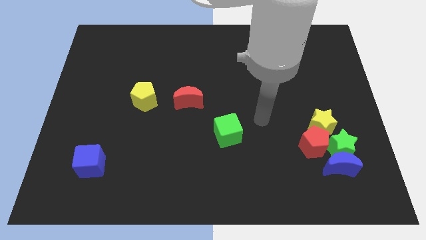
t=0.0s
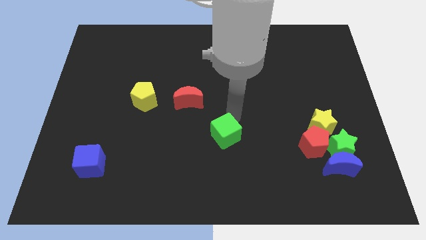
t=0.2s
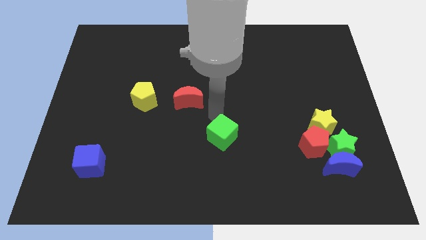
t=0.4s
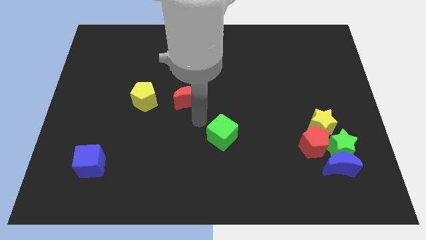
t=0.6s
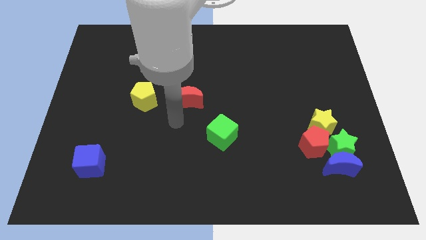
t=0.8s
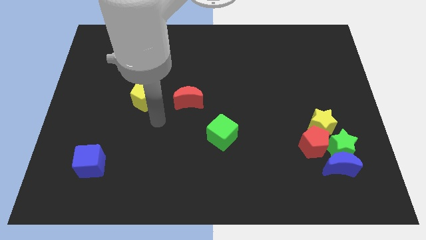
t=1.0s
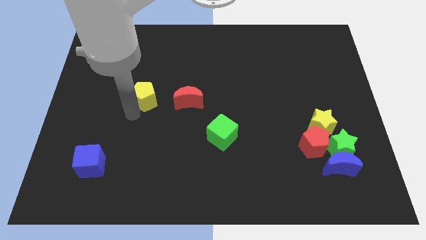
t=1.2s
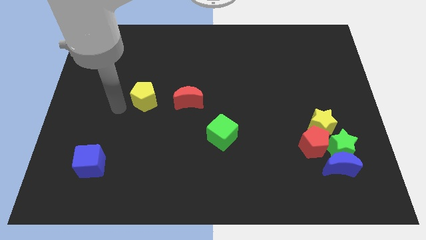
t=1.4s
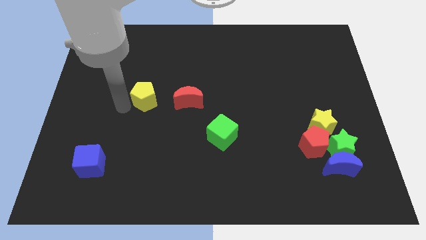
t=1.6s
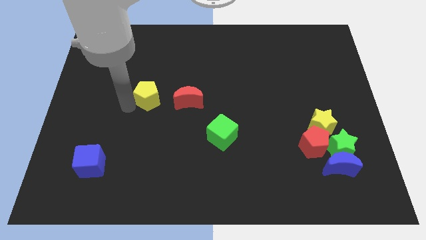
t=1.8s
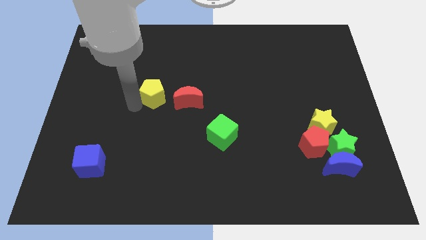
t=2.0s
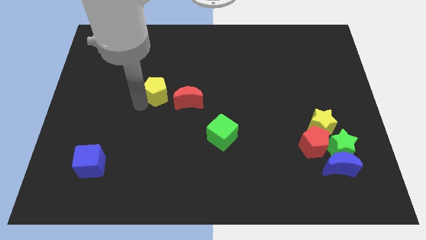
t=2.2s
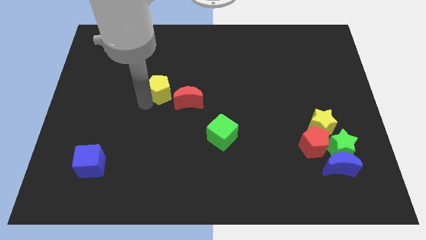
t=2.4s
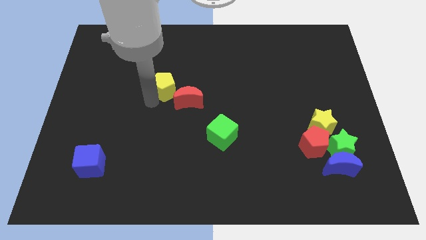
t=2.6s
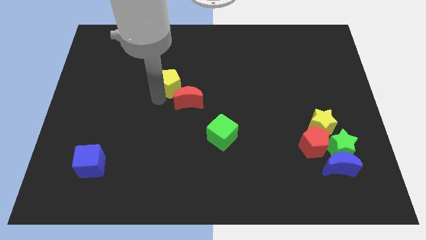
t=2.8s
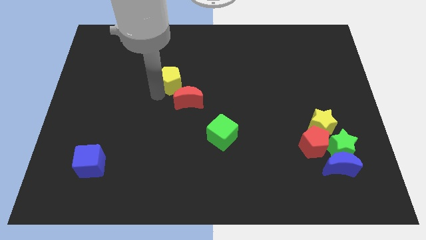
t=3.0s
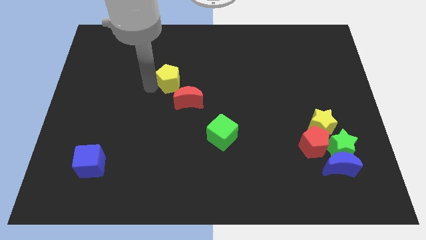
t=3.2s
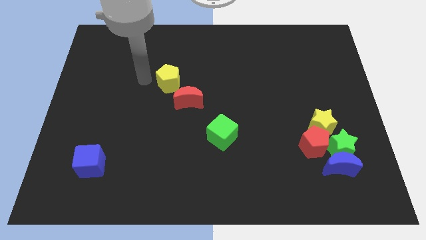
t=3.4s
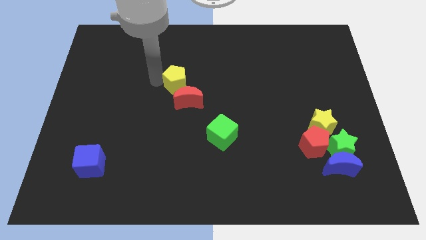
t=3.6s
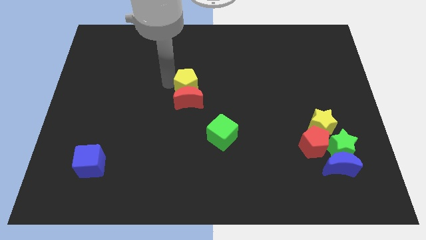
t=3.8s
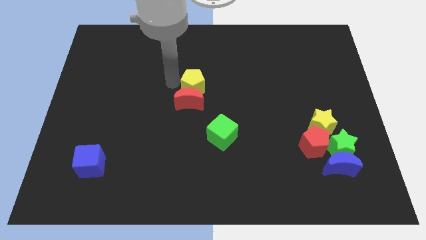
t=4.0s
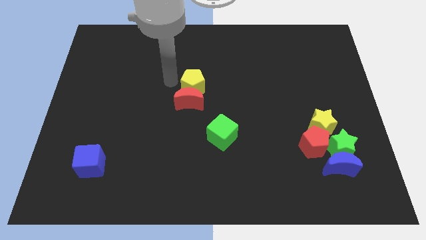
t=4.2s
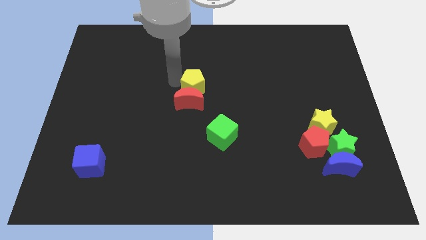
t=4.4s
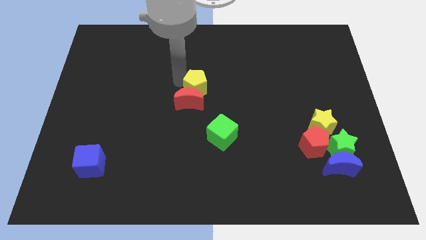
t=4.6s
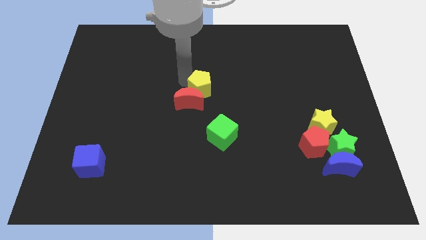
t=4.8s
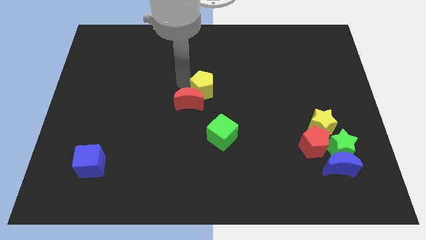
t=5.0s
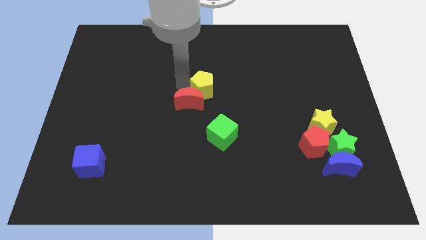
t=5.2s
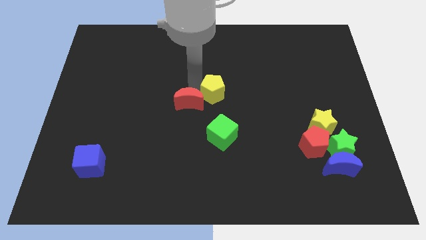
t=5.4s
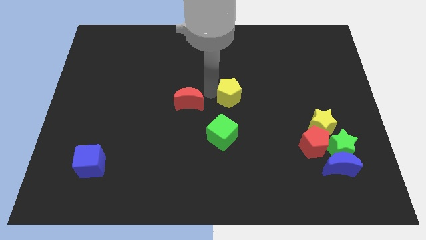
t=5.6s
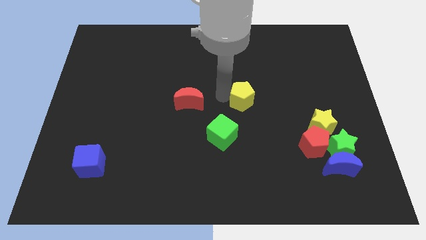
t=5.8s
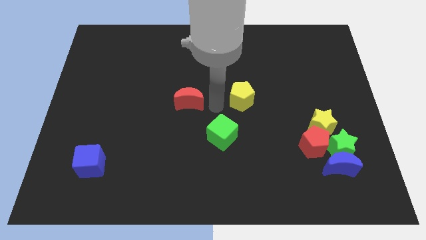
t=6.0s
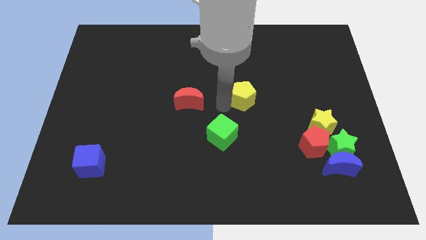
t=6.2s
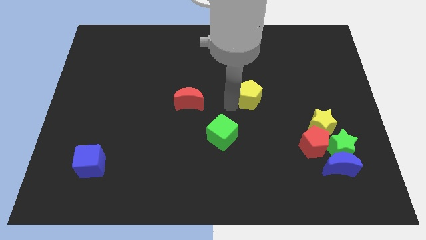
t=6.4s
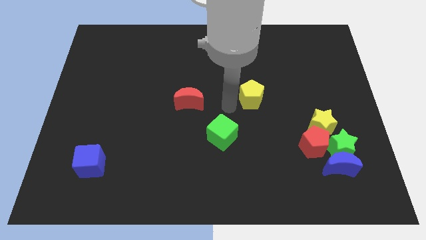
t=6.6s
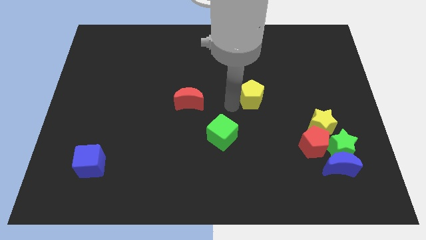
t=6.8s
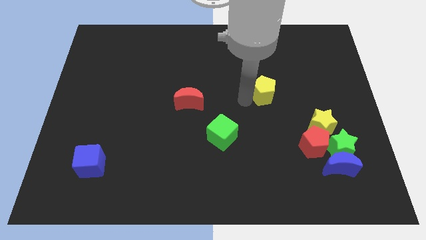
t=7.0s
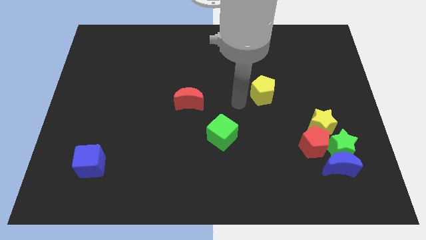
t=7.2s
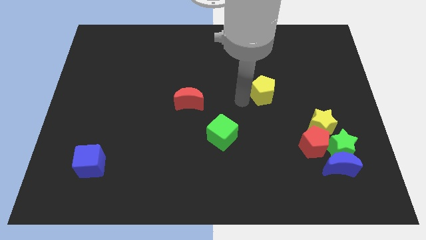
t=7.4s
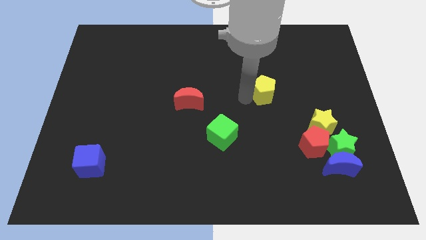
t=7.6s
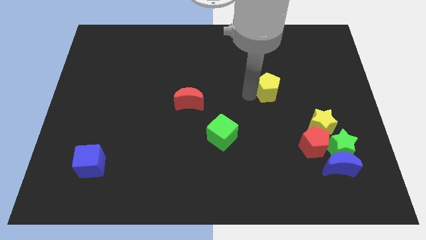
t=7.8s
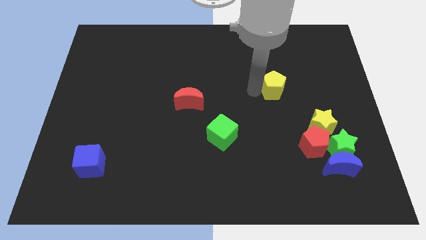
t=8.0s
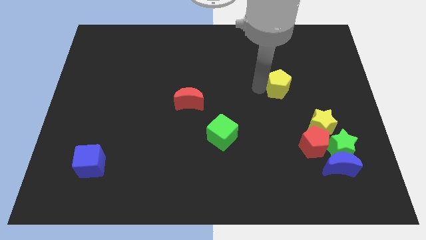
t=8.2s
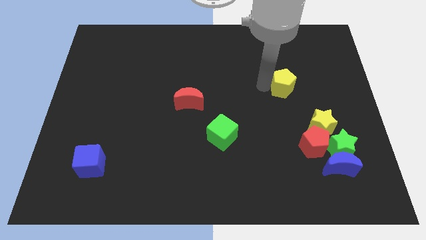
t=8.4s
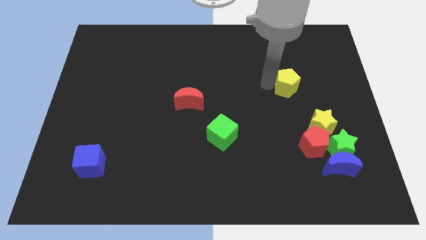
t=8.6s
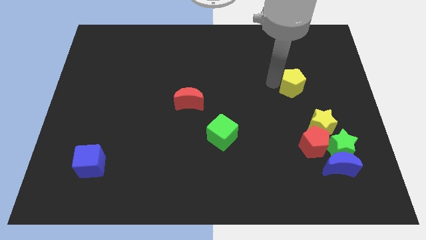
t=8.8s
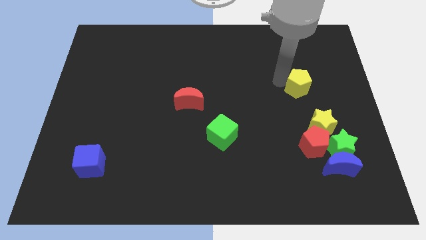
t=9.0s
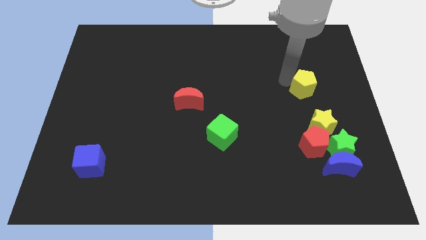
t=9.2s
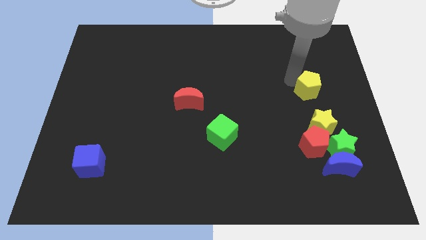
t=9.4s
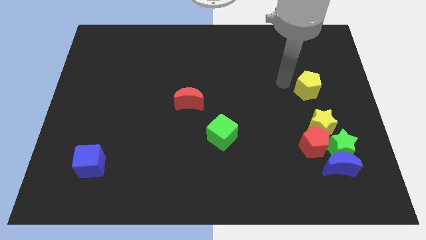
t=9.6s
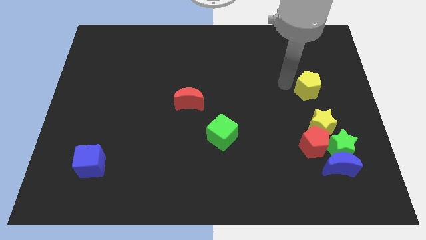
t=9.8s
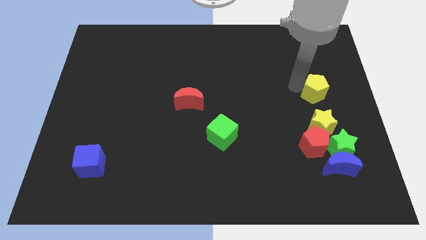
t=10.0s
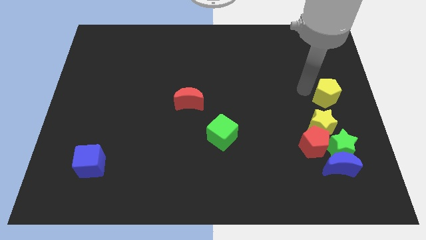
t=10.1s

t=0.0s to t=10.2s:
put the yellow pentagon to the center right

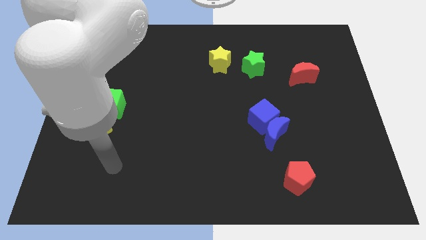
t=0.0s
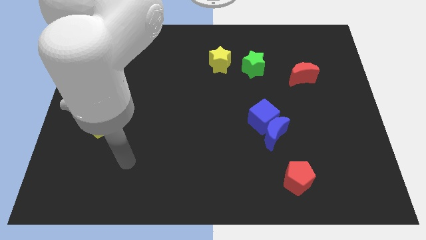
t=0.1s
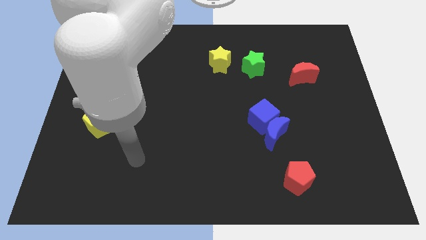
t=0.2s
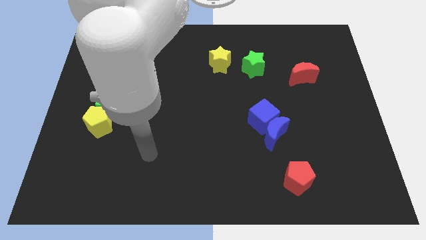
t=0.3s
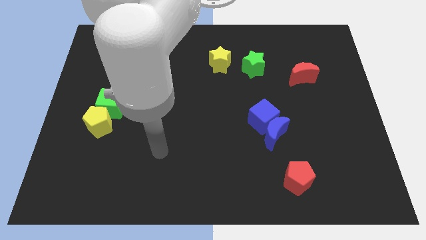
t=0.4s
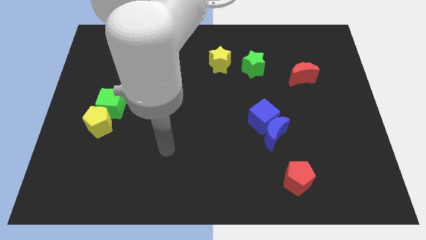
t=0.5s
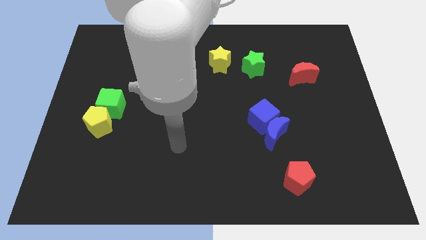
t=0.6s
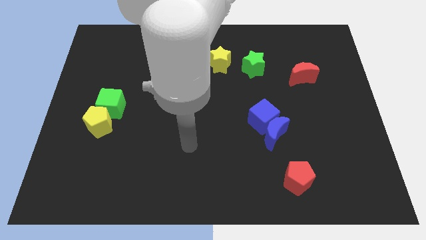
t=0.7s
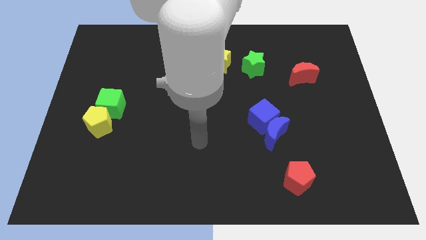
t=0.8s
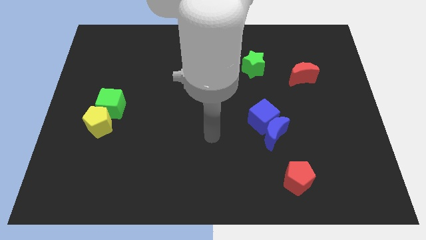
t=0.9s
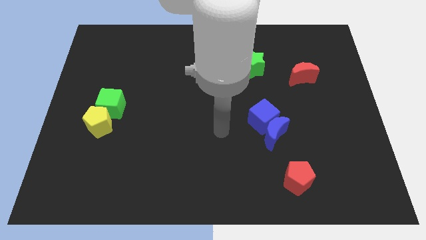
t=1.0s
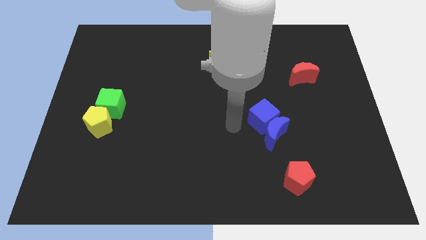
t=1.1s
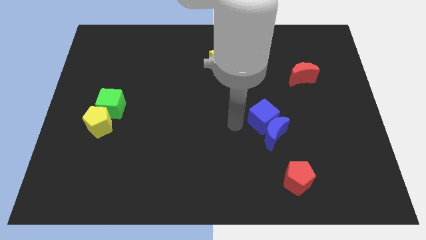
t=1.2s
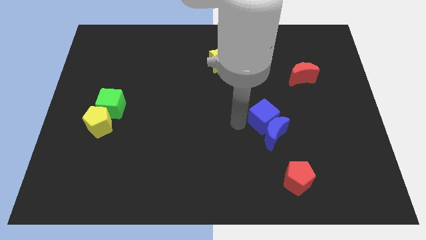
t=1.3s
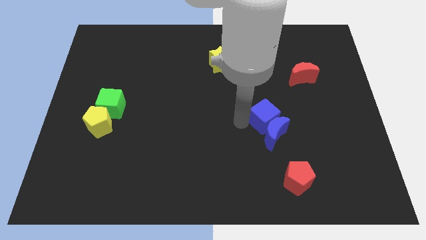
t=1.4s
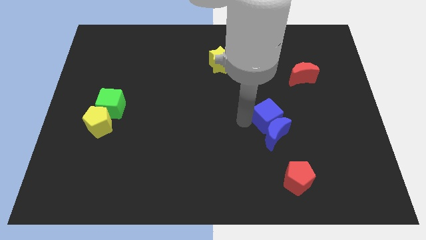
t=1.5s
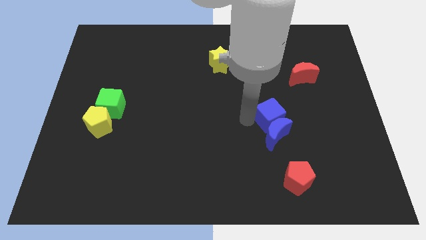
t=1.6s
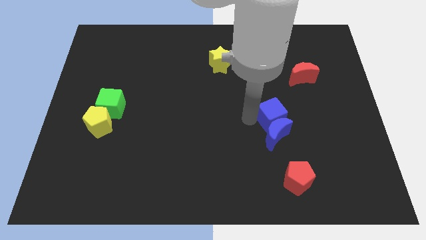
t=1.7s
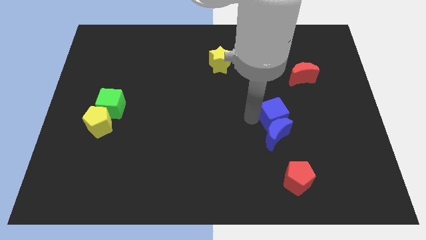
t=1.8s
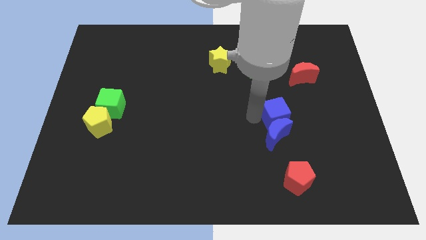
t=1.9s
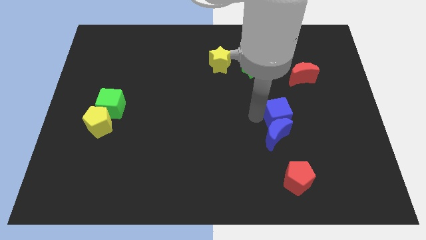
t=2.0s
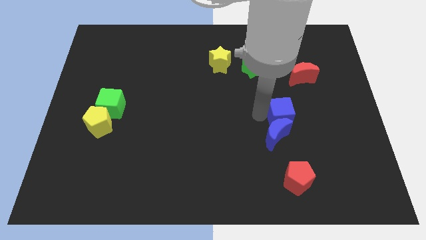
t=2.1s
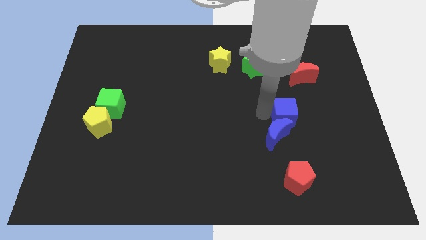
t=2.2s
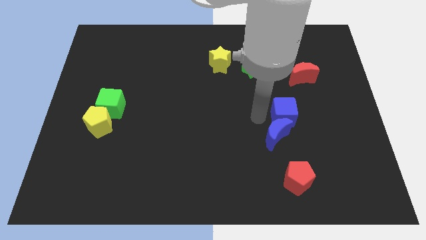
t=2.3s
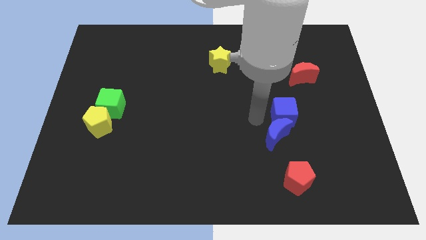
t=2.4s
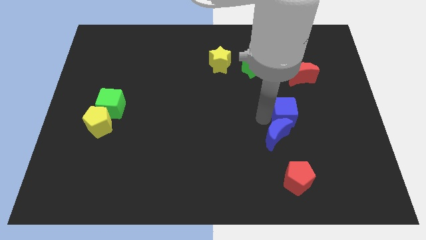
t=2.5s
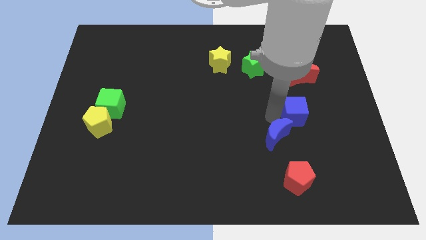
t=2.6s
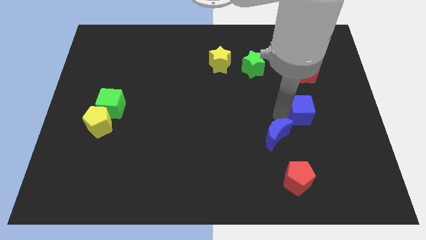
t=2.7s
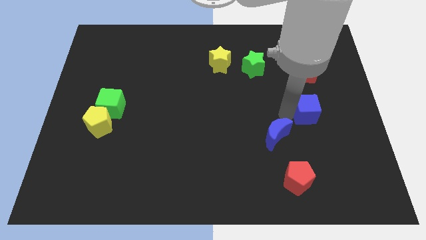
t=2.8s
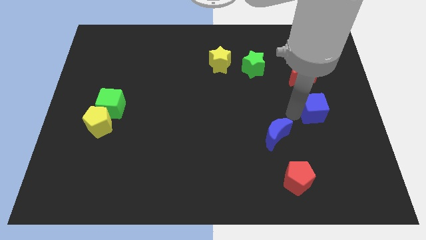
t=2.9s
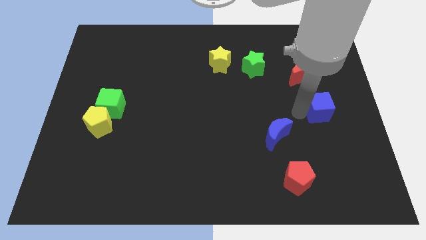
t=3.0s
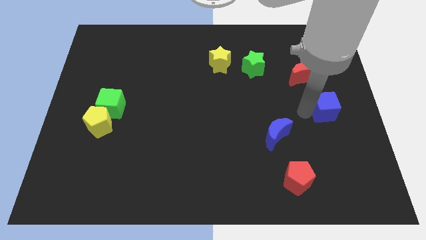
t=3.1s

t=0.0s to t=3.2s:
slide the blue cube to the right side
